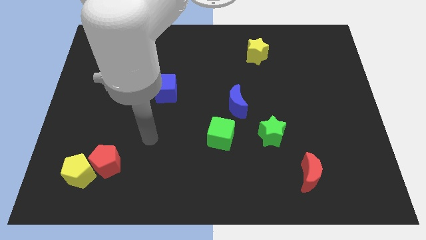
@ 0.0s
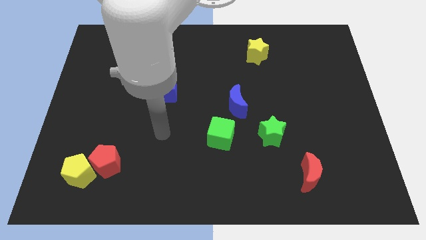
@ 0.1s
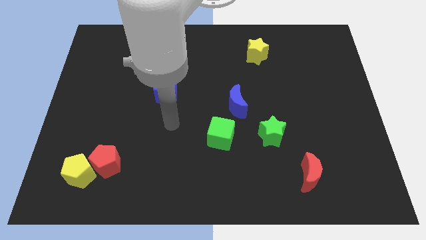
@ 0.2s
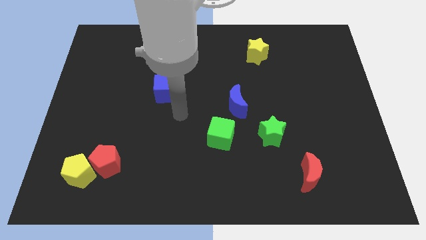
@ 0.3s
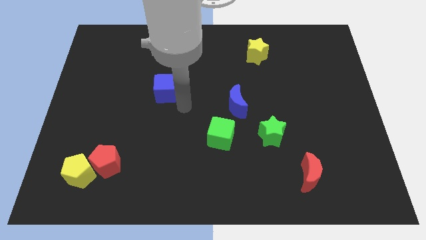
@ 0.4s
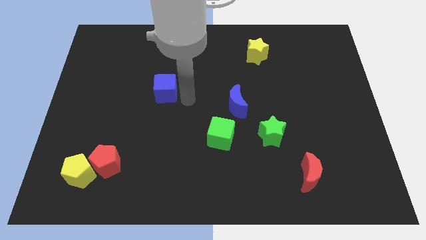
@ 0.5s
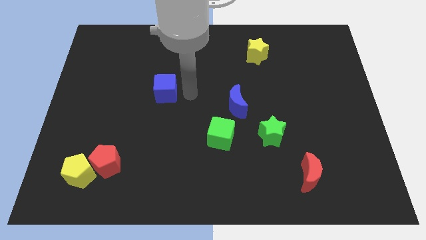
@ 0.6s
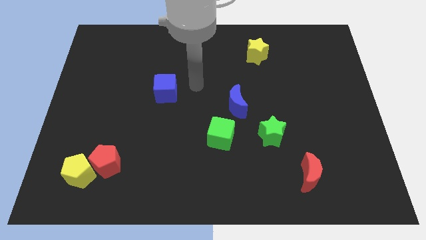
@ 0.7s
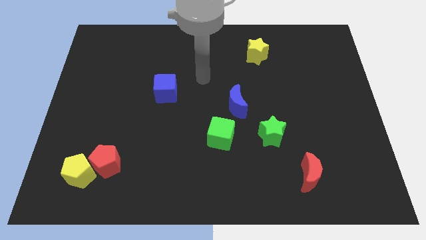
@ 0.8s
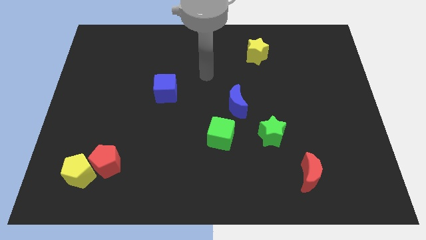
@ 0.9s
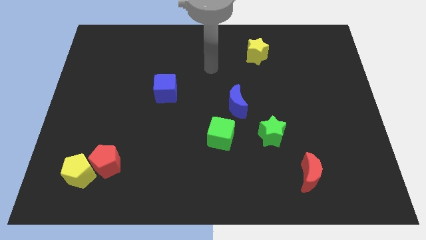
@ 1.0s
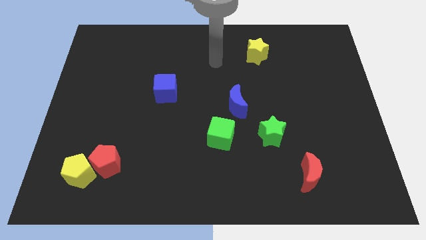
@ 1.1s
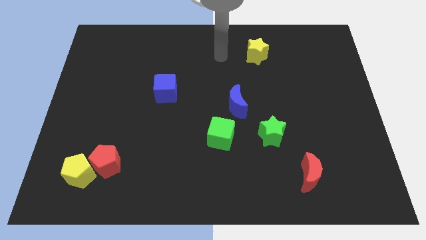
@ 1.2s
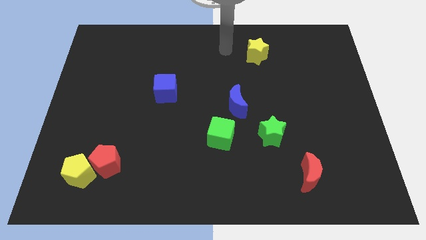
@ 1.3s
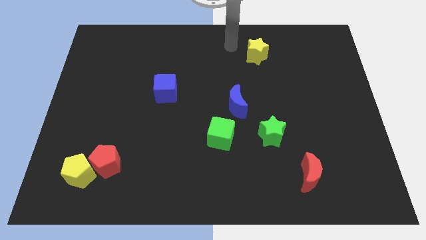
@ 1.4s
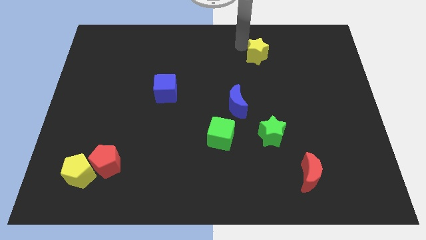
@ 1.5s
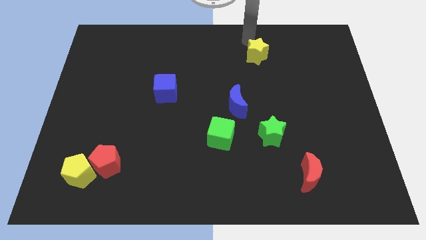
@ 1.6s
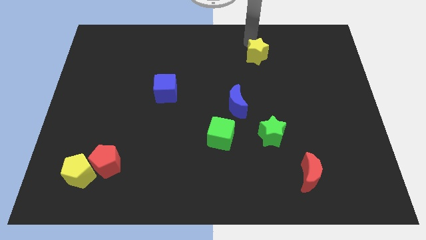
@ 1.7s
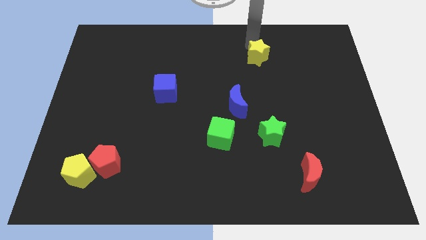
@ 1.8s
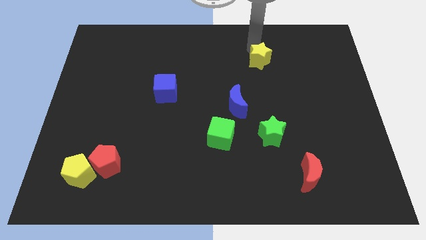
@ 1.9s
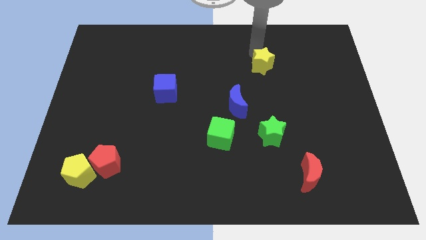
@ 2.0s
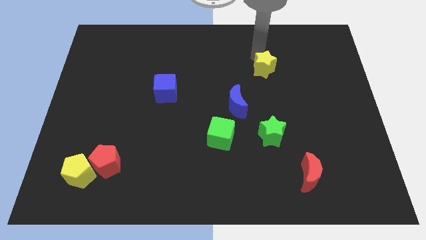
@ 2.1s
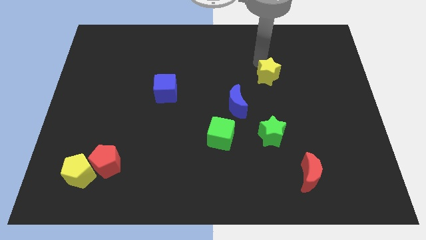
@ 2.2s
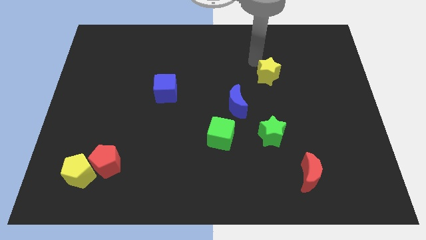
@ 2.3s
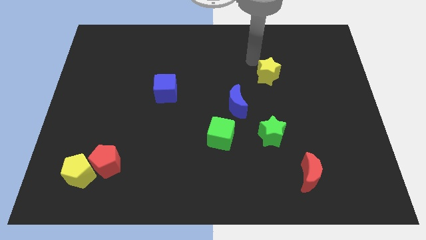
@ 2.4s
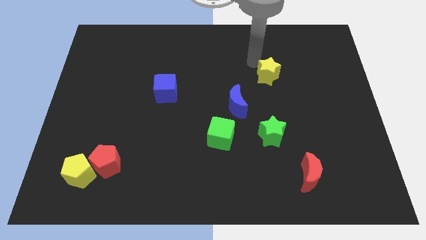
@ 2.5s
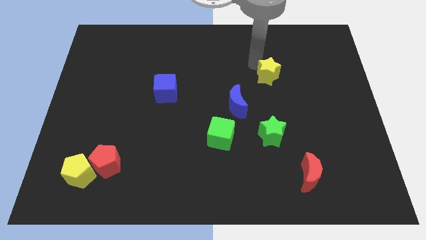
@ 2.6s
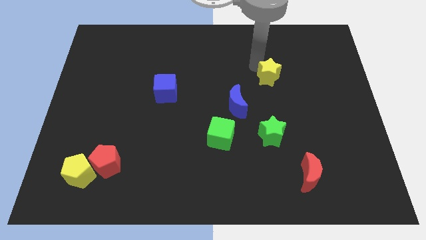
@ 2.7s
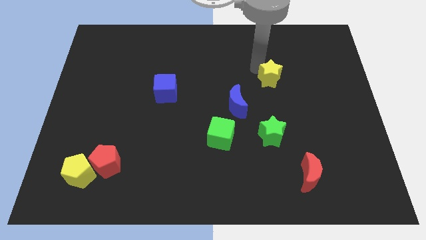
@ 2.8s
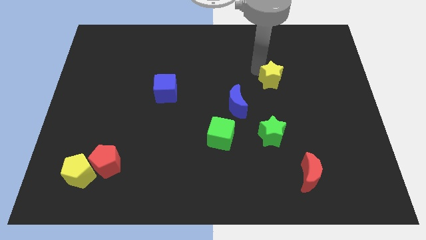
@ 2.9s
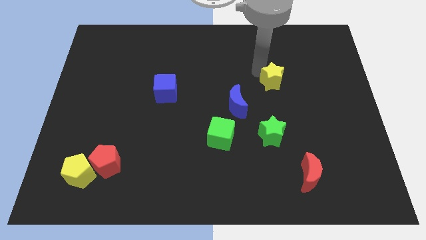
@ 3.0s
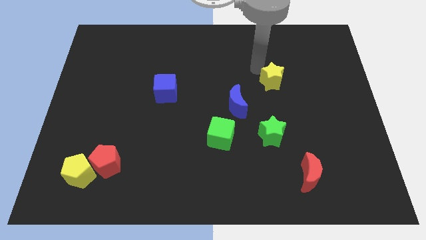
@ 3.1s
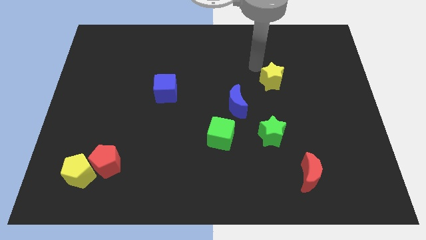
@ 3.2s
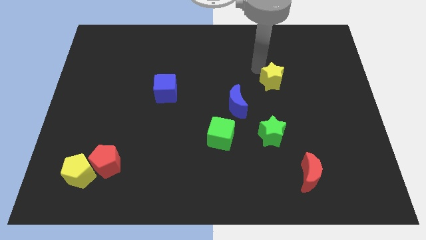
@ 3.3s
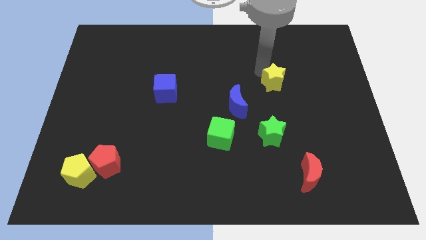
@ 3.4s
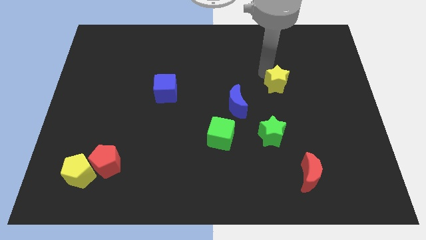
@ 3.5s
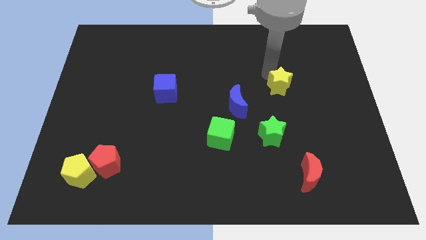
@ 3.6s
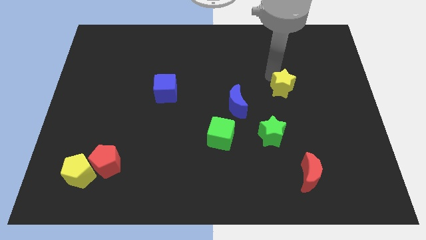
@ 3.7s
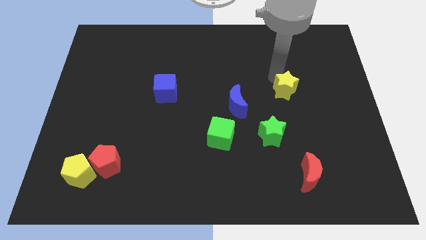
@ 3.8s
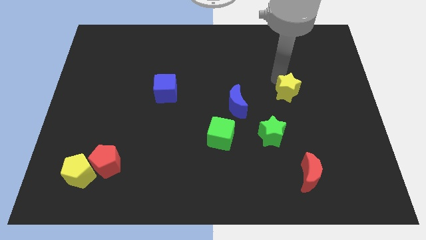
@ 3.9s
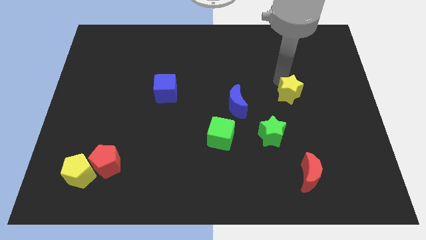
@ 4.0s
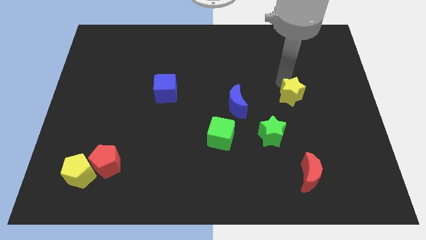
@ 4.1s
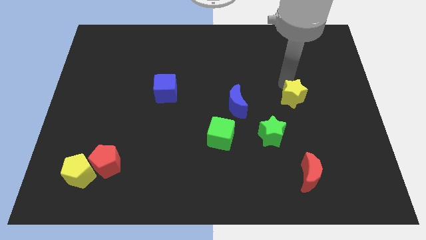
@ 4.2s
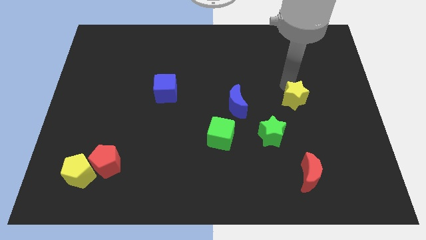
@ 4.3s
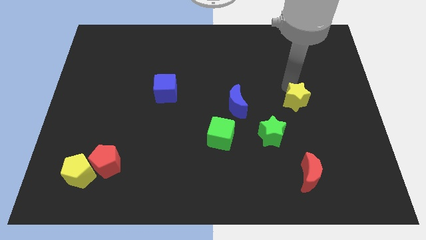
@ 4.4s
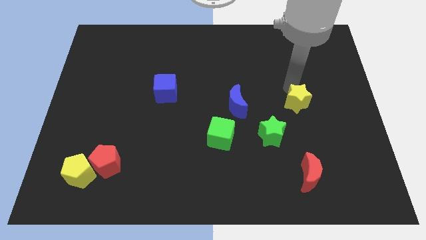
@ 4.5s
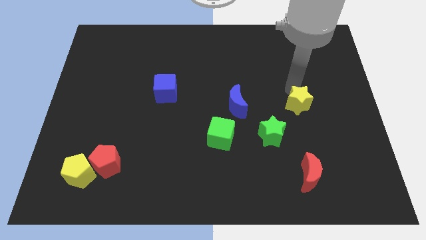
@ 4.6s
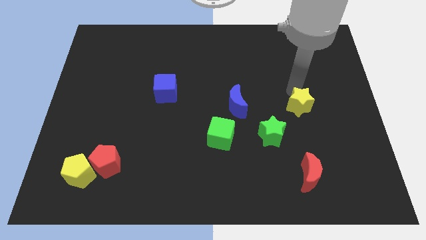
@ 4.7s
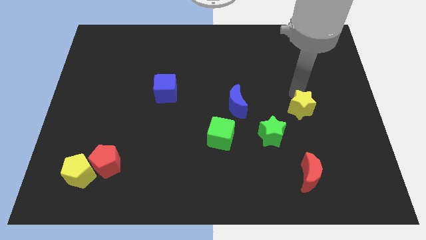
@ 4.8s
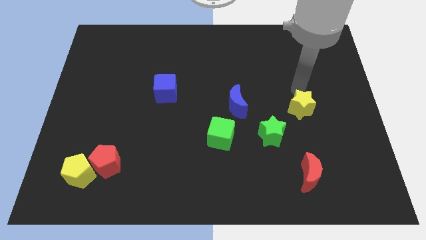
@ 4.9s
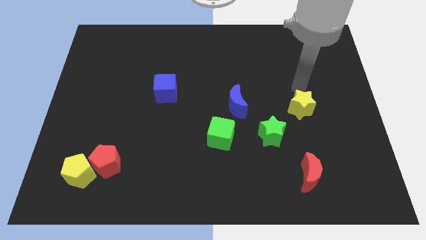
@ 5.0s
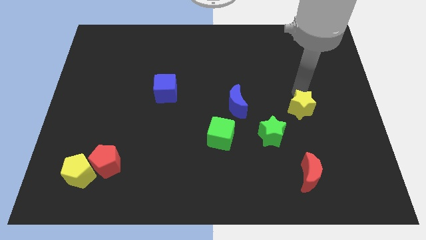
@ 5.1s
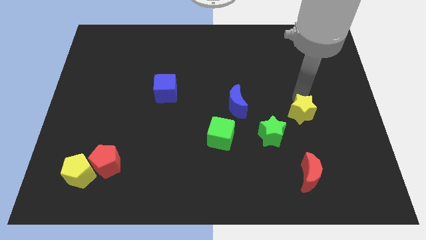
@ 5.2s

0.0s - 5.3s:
slide the yellow star to the top side of the red moon

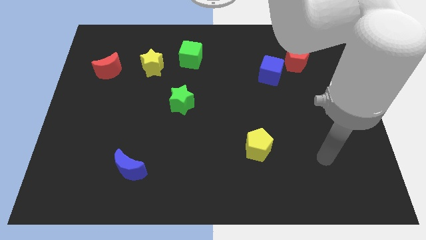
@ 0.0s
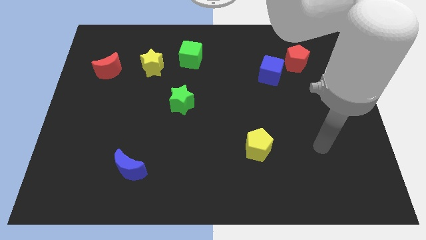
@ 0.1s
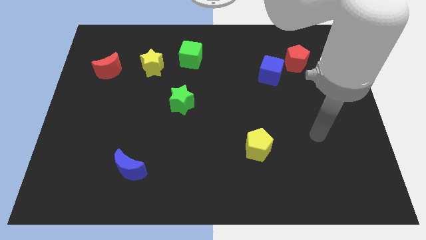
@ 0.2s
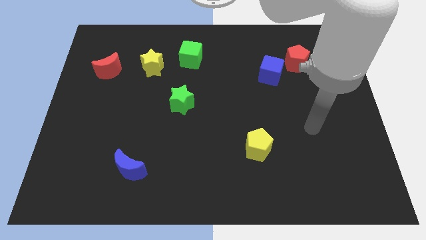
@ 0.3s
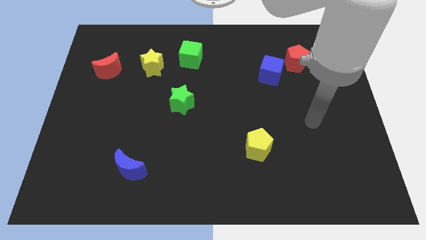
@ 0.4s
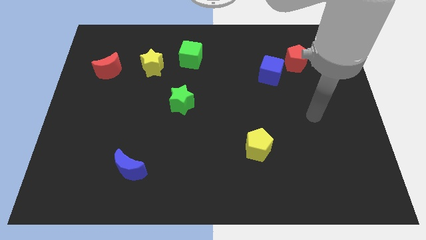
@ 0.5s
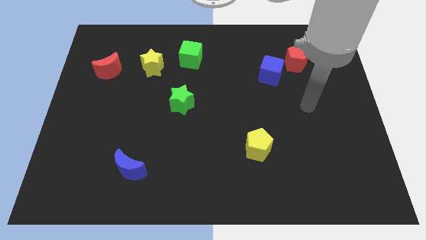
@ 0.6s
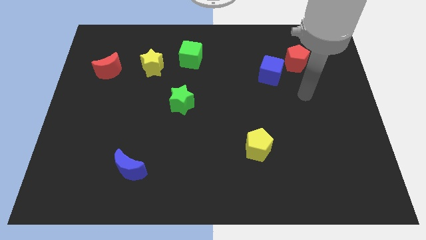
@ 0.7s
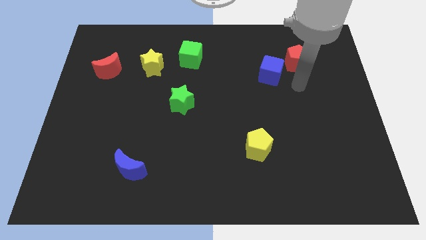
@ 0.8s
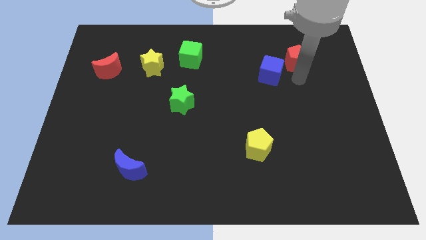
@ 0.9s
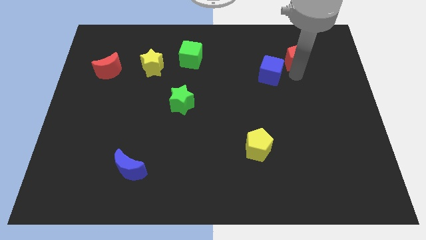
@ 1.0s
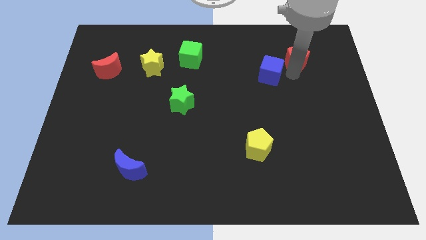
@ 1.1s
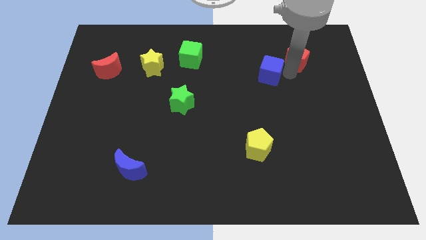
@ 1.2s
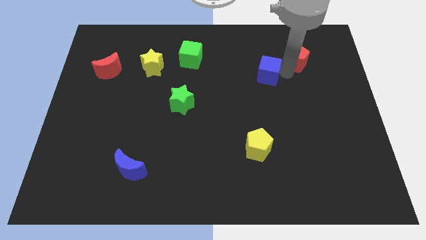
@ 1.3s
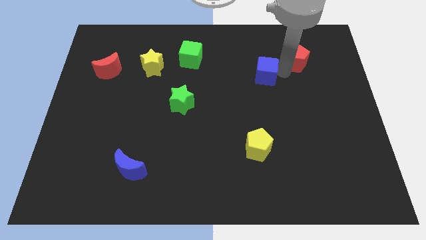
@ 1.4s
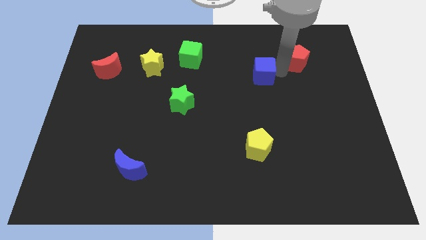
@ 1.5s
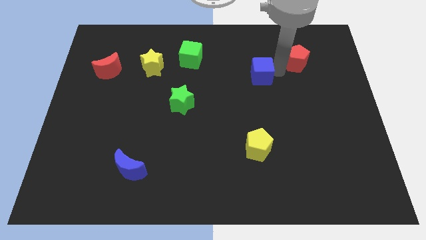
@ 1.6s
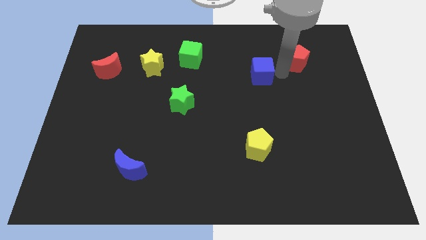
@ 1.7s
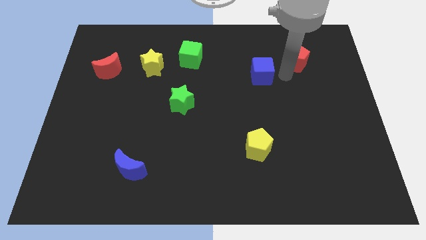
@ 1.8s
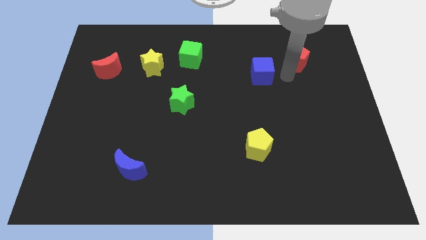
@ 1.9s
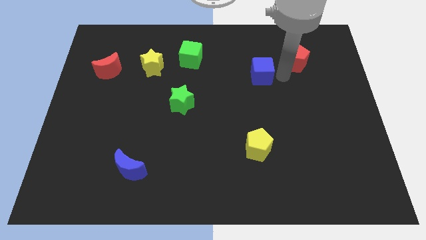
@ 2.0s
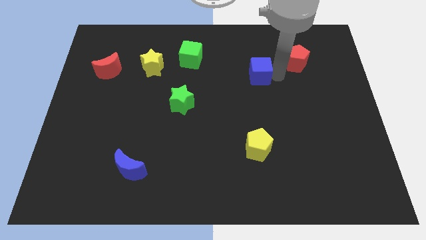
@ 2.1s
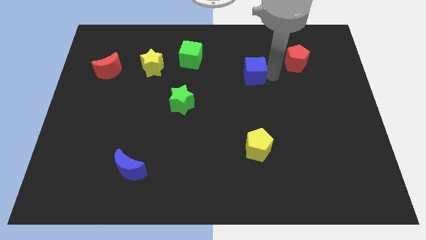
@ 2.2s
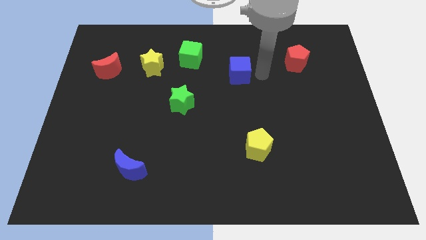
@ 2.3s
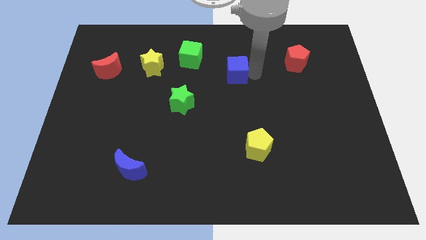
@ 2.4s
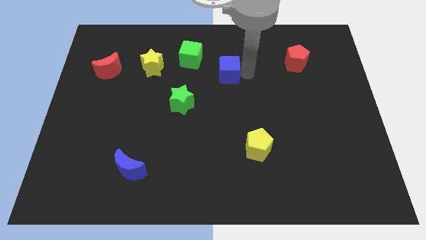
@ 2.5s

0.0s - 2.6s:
push the blue cube to the bottom right of the green cube

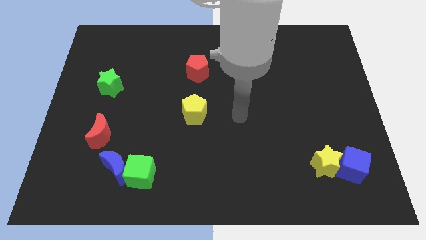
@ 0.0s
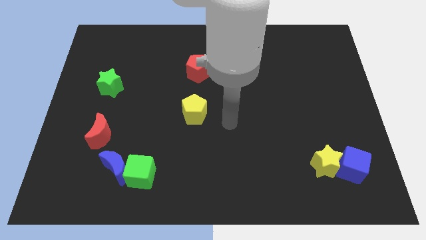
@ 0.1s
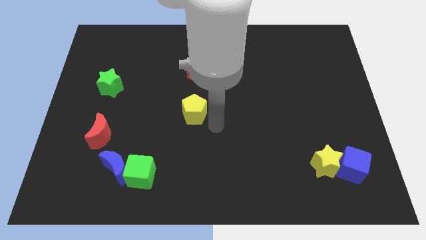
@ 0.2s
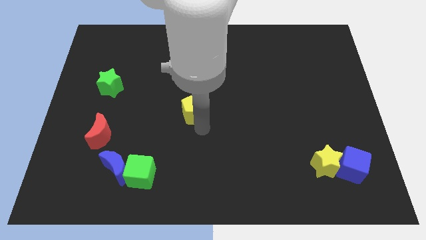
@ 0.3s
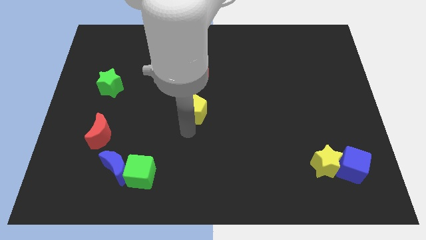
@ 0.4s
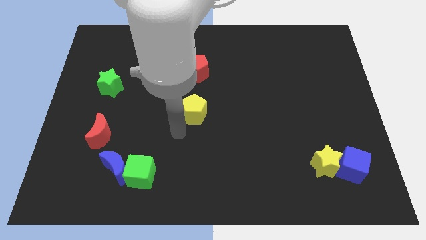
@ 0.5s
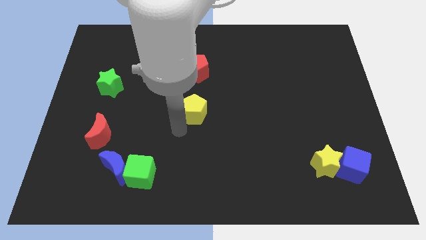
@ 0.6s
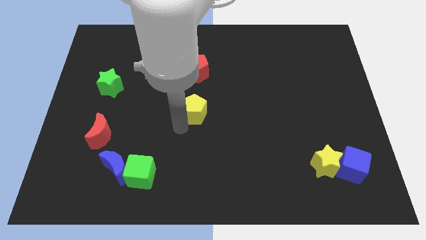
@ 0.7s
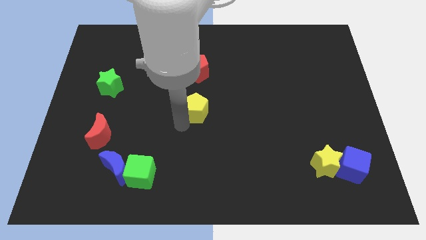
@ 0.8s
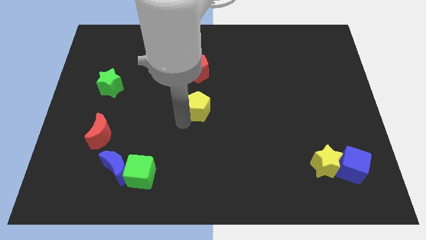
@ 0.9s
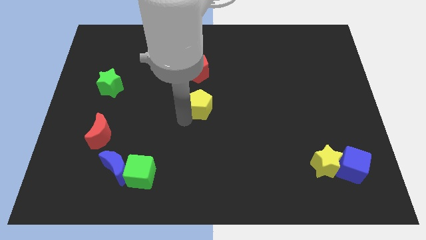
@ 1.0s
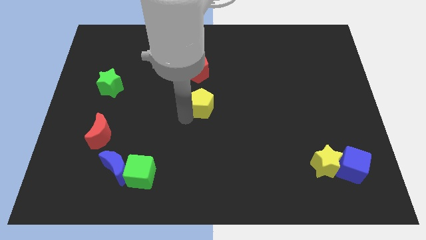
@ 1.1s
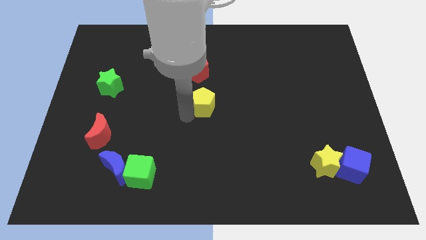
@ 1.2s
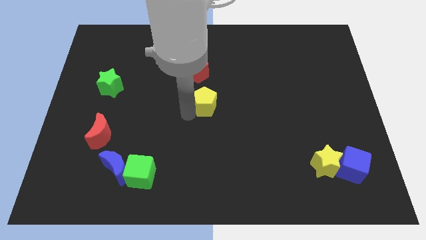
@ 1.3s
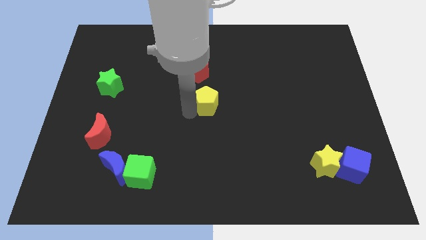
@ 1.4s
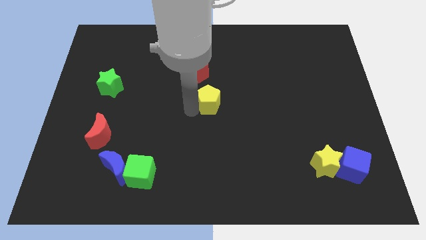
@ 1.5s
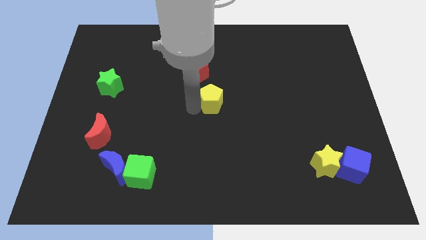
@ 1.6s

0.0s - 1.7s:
move the yellow pentagon to the bottom right of the red pentagon
